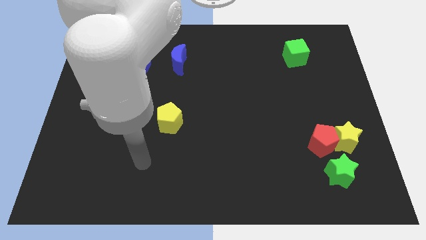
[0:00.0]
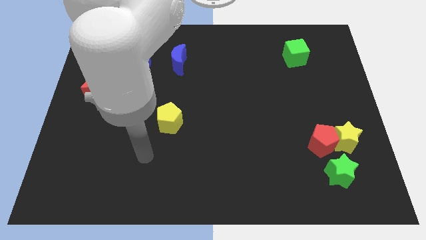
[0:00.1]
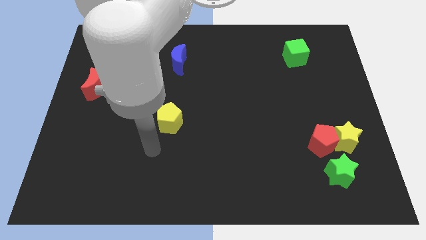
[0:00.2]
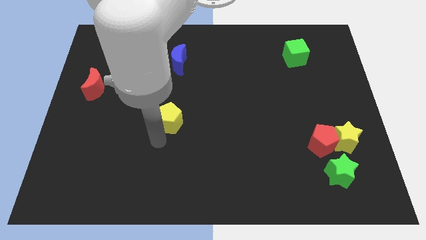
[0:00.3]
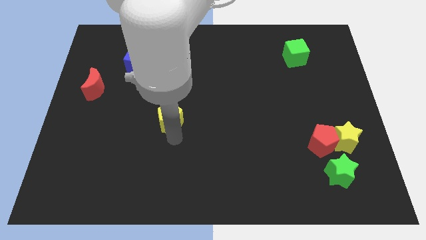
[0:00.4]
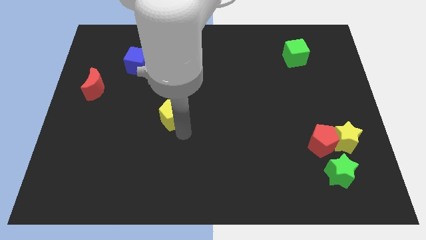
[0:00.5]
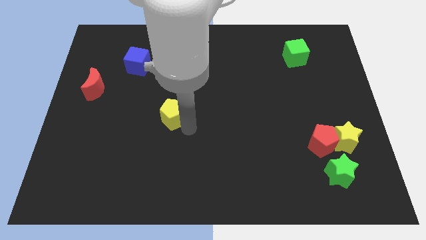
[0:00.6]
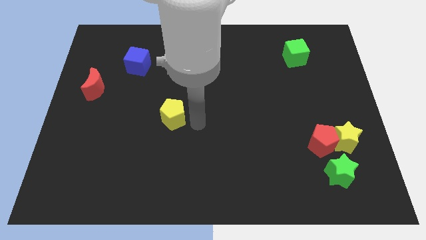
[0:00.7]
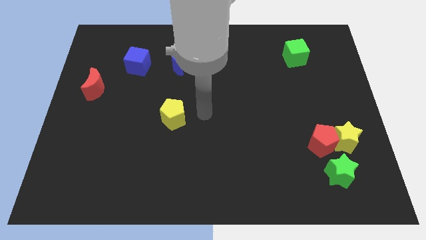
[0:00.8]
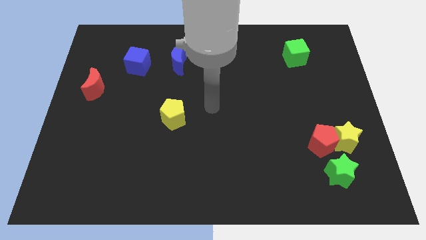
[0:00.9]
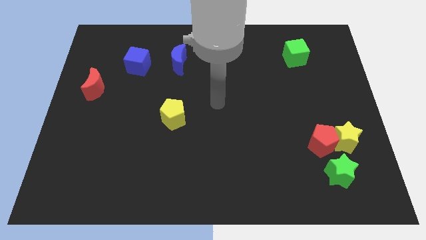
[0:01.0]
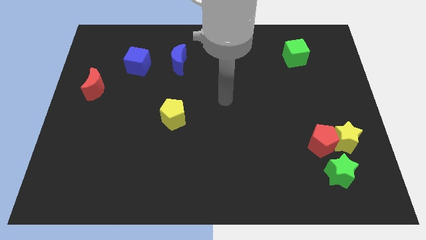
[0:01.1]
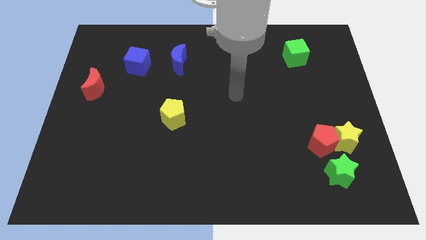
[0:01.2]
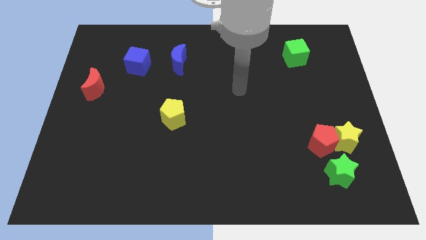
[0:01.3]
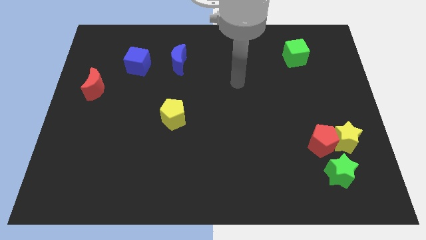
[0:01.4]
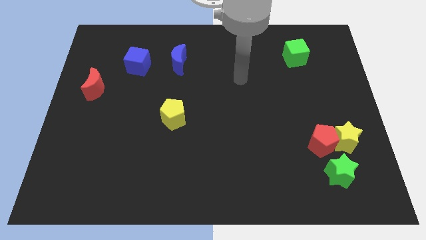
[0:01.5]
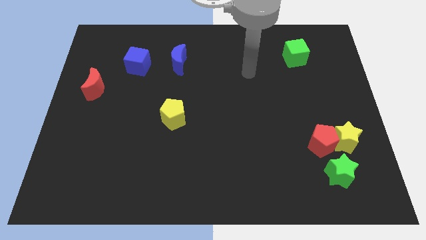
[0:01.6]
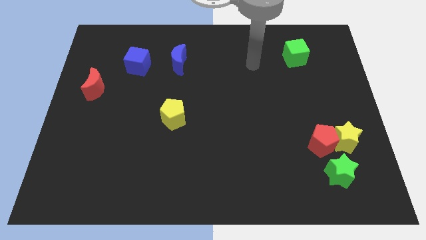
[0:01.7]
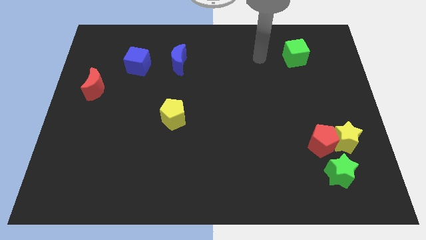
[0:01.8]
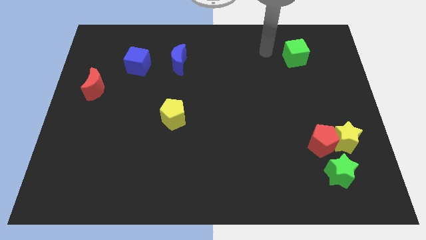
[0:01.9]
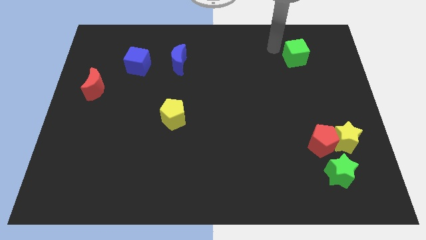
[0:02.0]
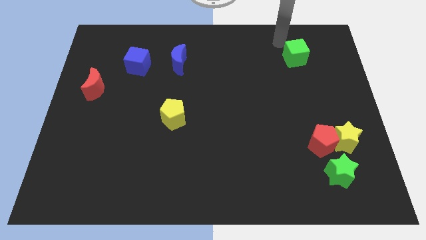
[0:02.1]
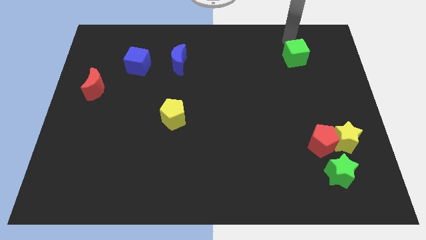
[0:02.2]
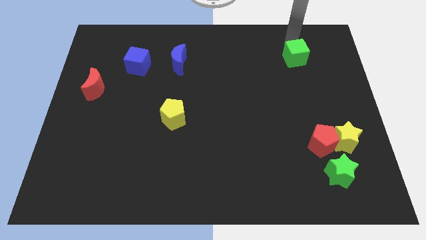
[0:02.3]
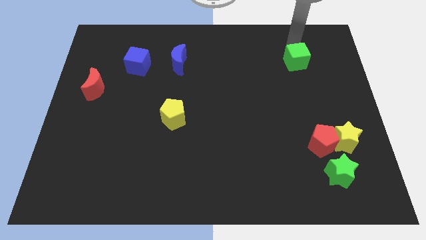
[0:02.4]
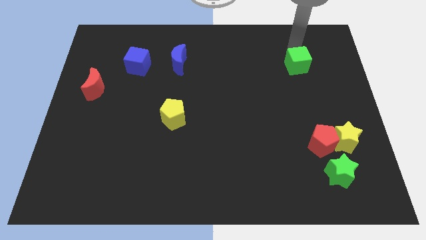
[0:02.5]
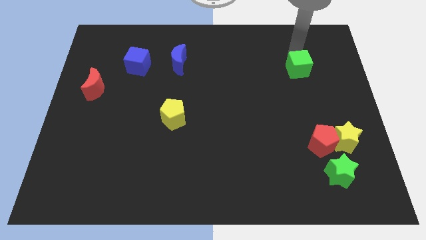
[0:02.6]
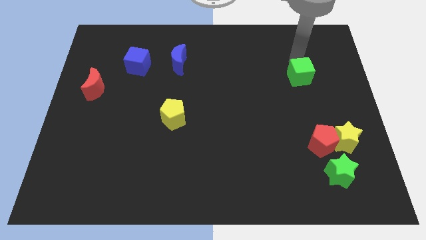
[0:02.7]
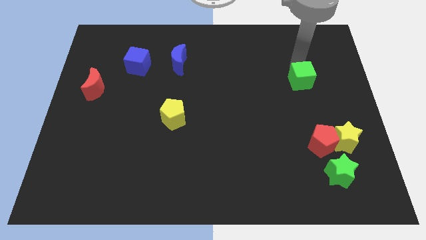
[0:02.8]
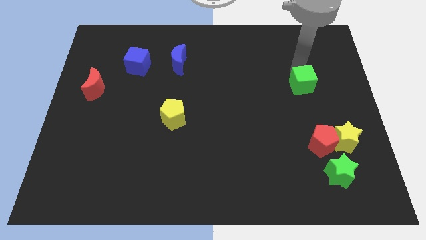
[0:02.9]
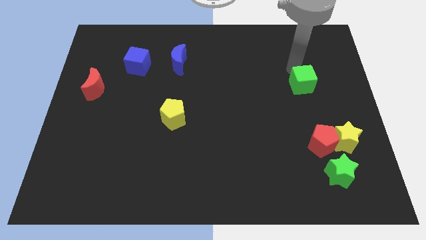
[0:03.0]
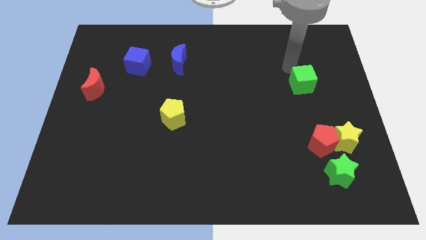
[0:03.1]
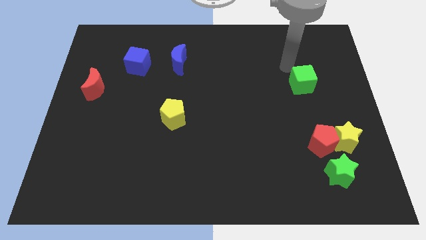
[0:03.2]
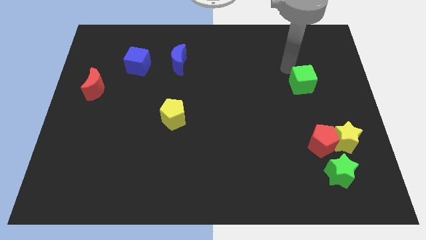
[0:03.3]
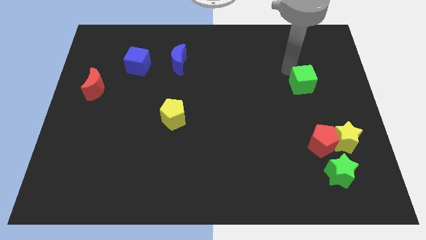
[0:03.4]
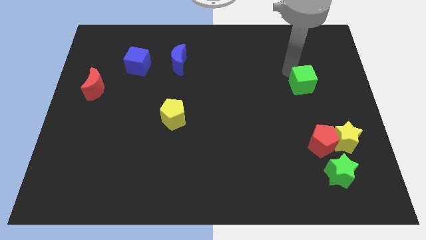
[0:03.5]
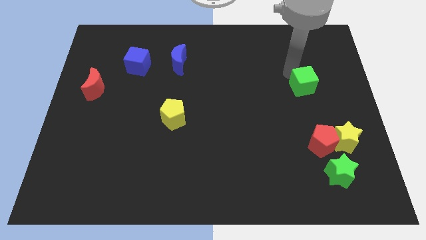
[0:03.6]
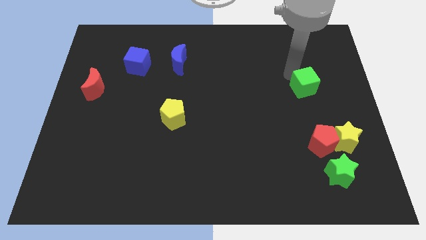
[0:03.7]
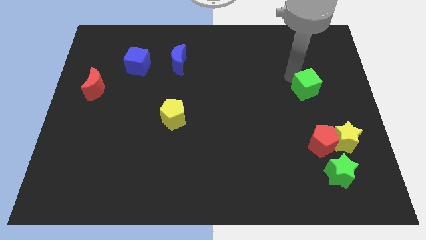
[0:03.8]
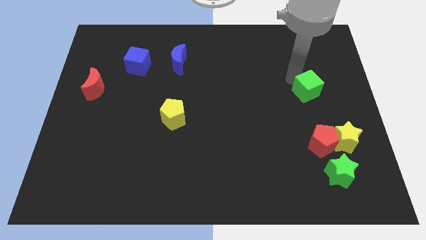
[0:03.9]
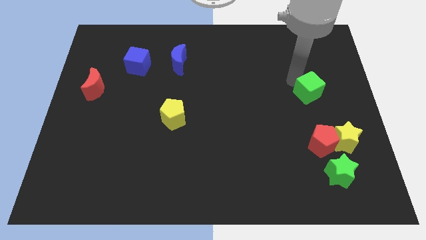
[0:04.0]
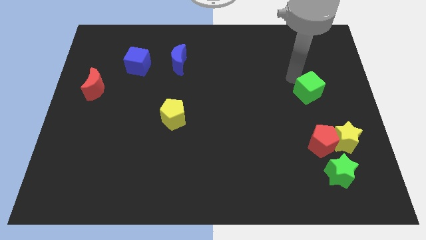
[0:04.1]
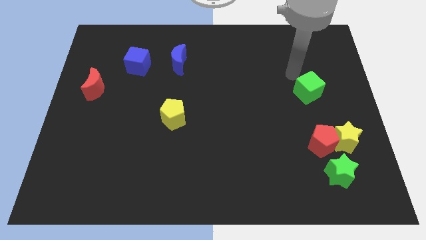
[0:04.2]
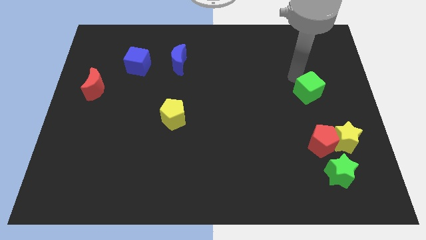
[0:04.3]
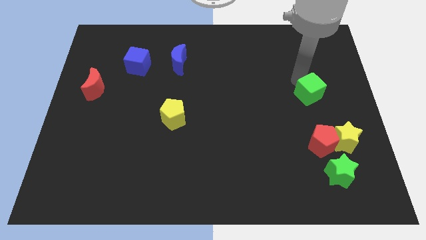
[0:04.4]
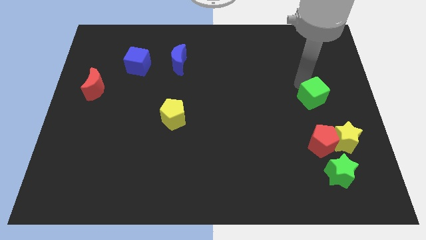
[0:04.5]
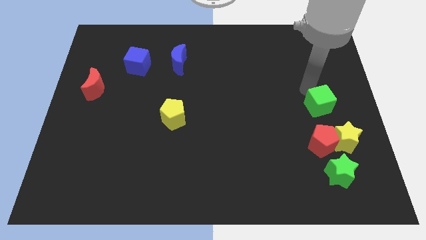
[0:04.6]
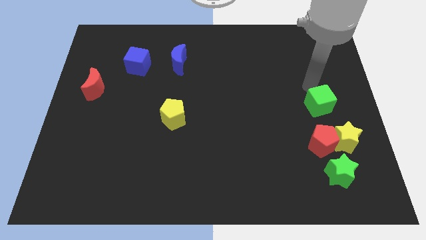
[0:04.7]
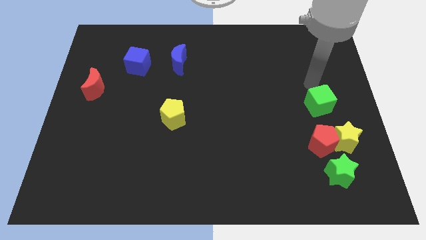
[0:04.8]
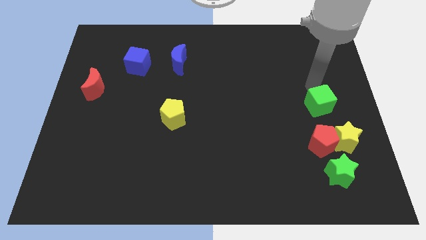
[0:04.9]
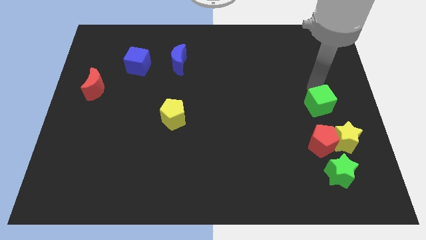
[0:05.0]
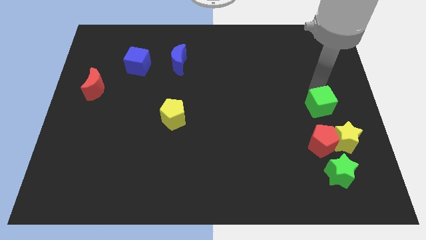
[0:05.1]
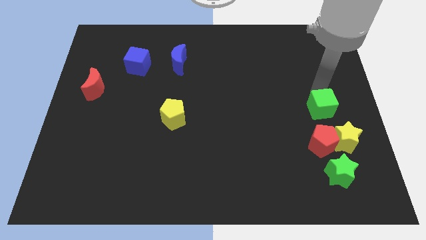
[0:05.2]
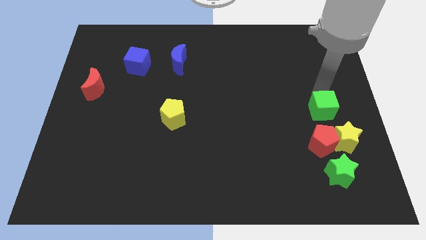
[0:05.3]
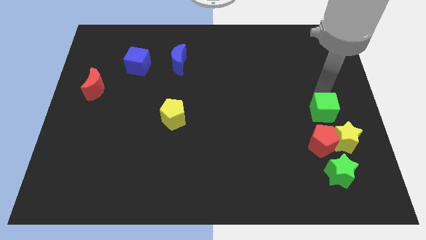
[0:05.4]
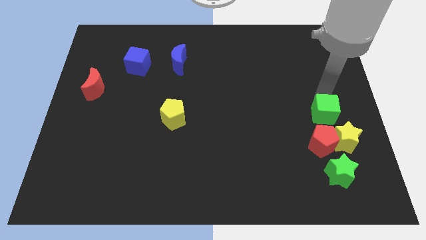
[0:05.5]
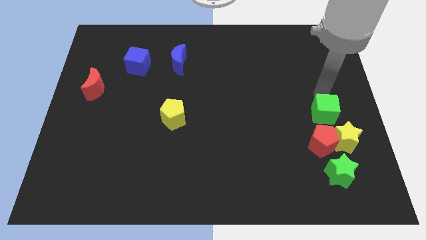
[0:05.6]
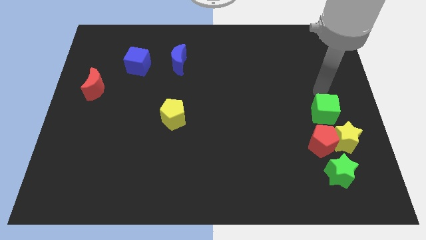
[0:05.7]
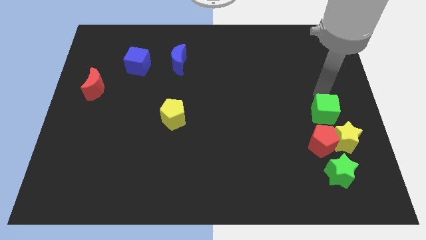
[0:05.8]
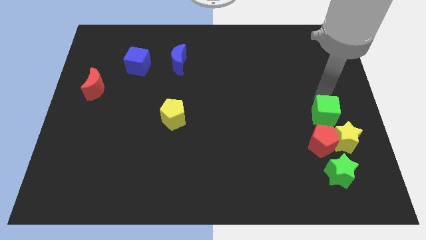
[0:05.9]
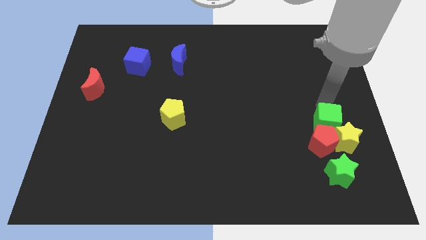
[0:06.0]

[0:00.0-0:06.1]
move the green cube to the red pentagon

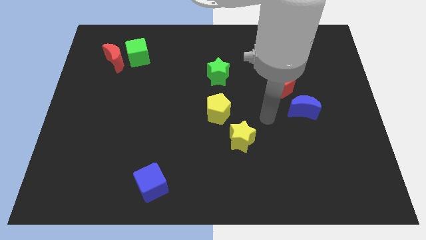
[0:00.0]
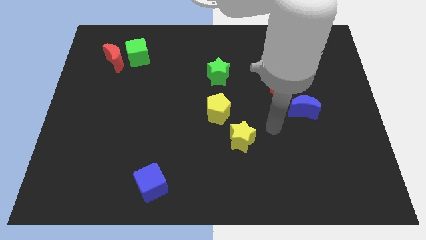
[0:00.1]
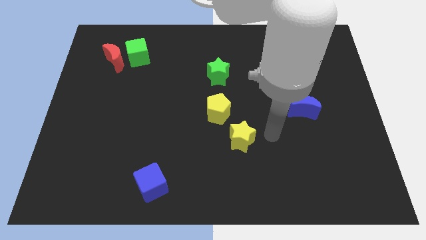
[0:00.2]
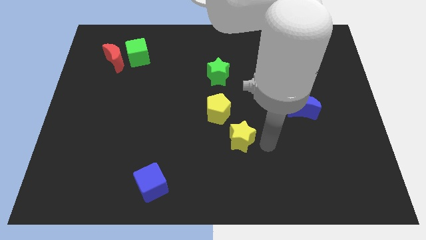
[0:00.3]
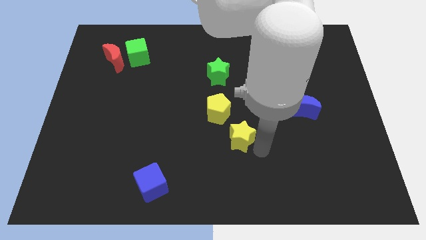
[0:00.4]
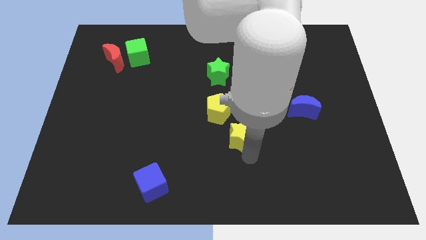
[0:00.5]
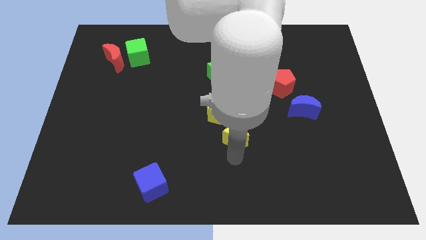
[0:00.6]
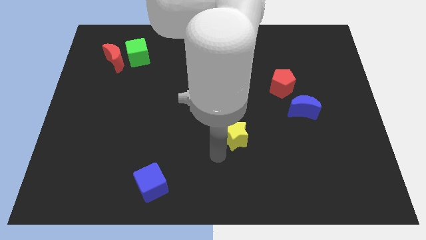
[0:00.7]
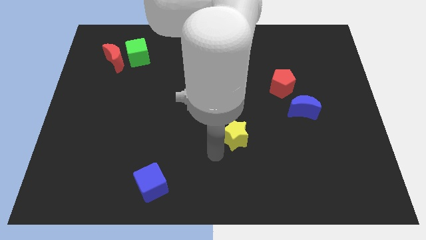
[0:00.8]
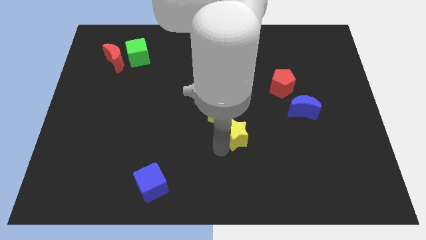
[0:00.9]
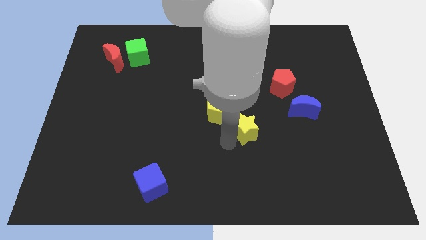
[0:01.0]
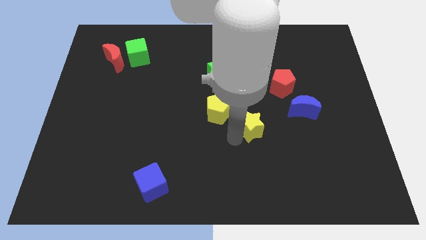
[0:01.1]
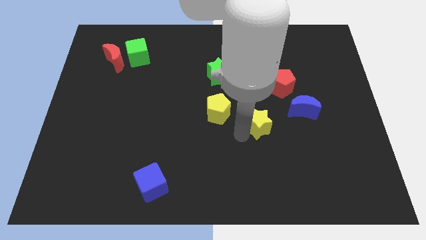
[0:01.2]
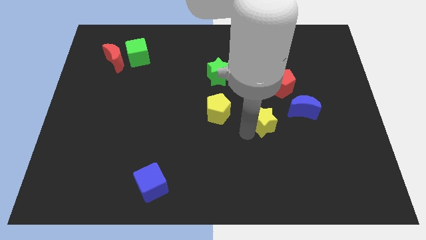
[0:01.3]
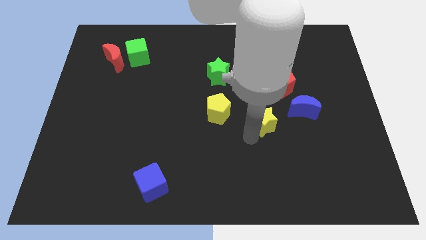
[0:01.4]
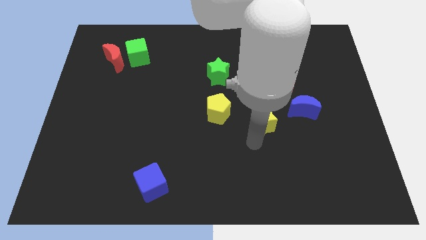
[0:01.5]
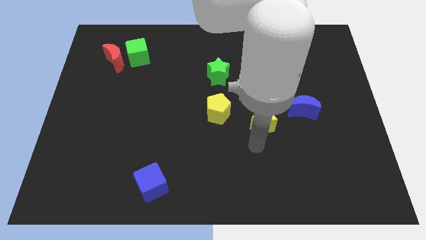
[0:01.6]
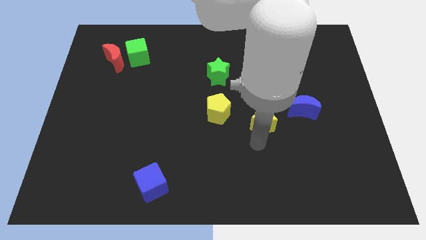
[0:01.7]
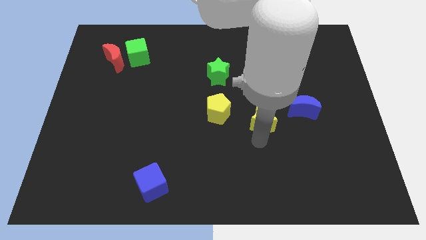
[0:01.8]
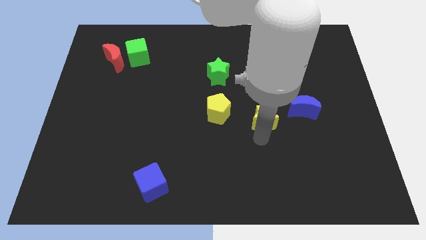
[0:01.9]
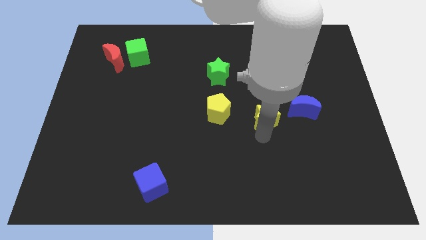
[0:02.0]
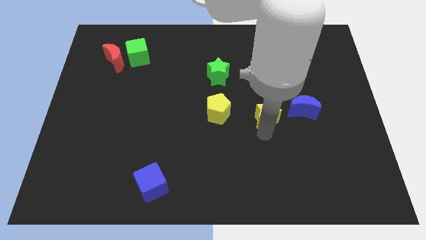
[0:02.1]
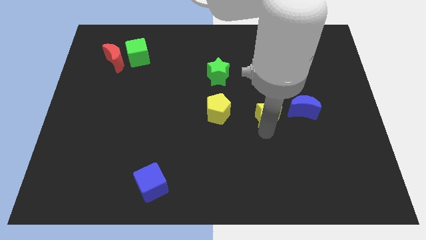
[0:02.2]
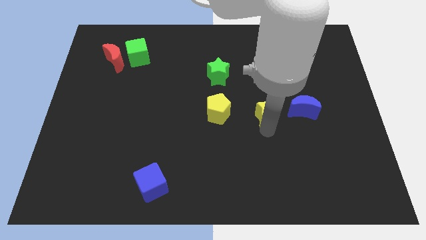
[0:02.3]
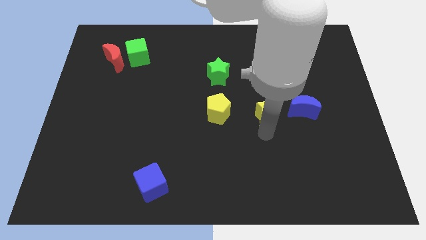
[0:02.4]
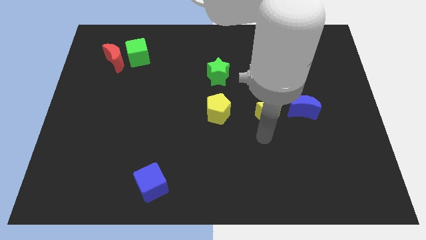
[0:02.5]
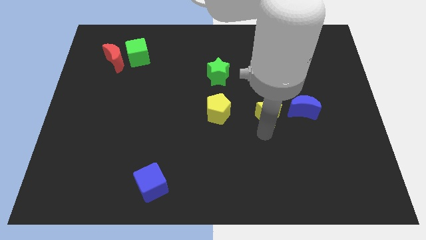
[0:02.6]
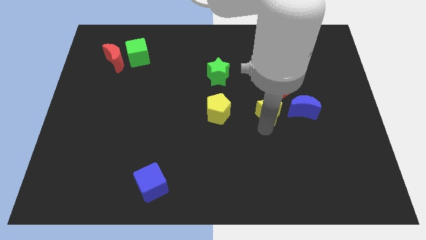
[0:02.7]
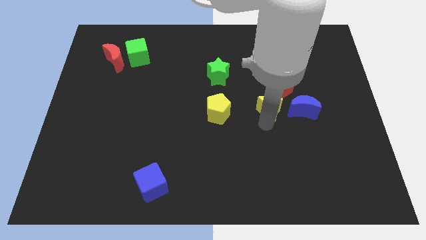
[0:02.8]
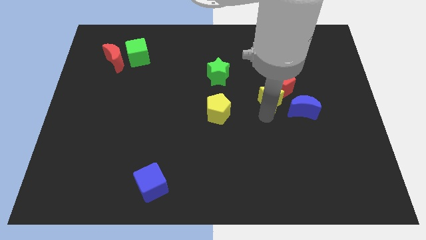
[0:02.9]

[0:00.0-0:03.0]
move the yellow star towards the red pentagon
